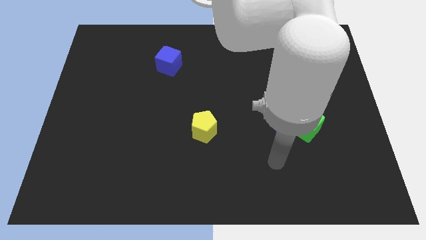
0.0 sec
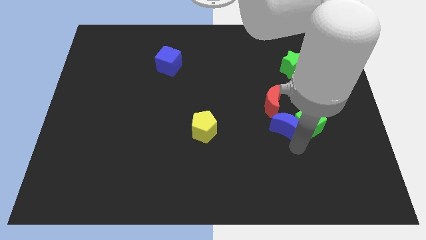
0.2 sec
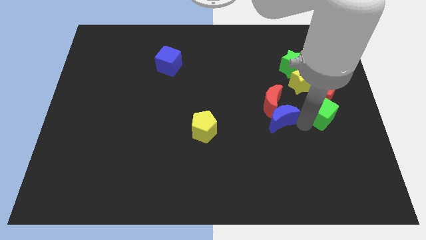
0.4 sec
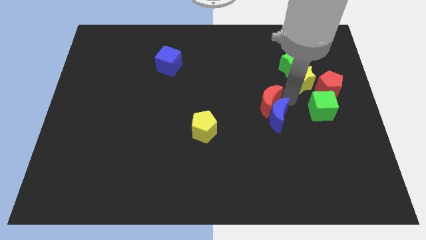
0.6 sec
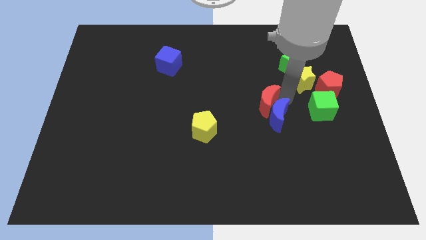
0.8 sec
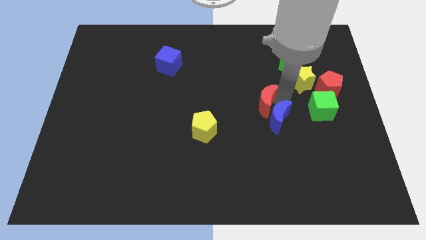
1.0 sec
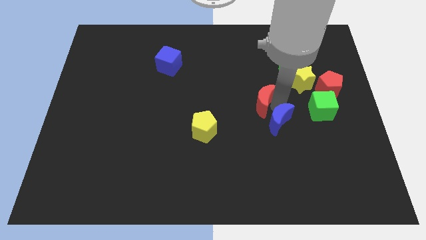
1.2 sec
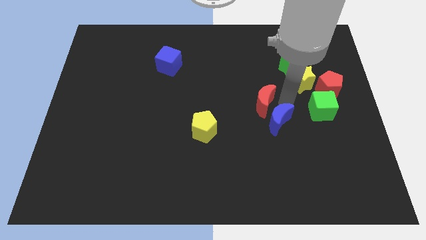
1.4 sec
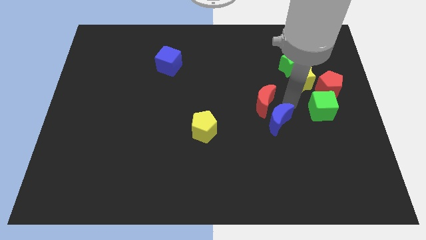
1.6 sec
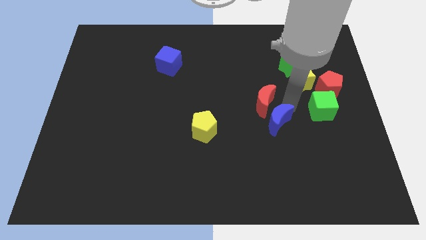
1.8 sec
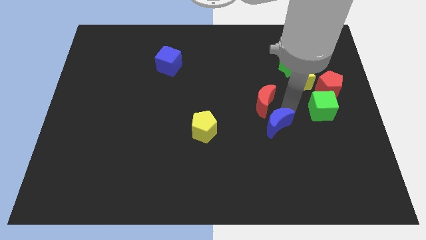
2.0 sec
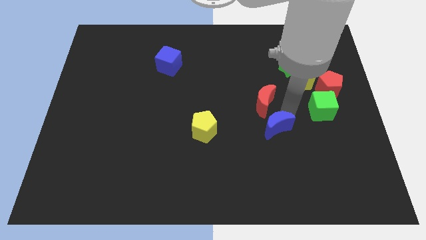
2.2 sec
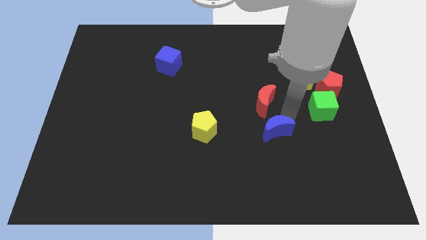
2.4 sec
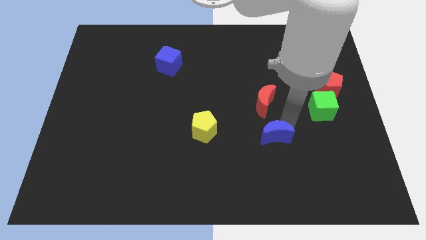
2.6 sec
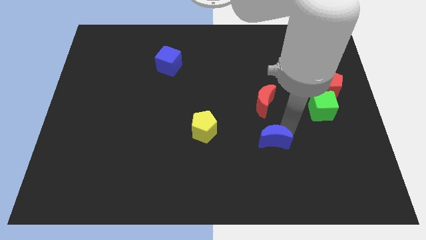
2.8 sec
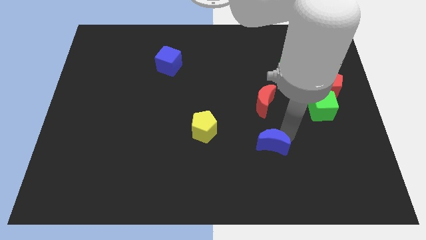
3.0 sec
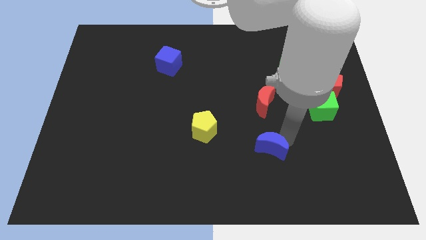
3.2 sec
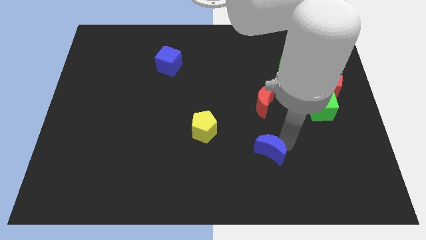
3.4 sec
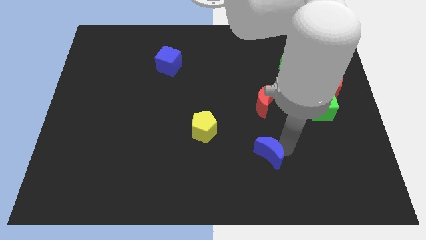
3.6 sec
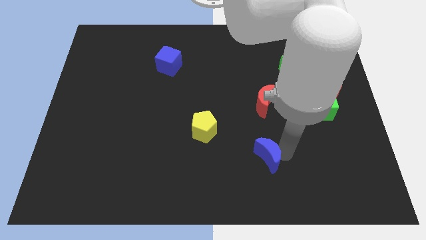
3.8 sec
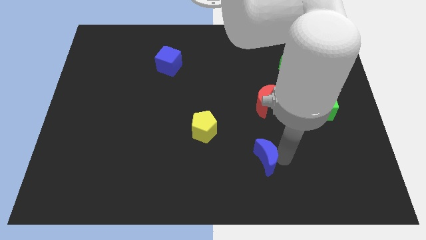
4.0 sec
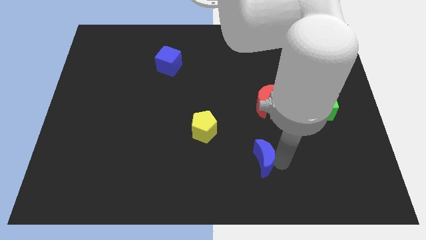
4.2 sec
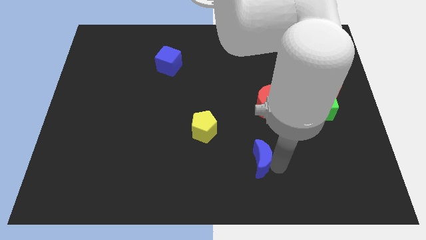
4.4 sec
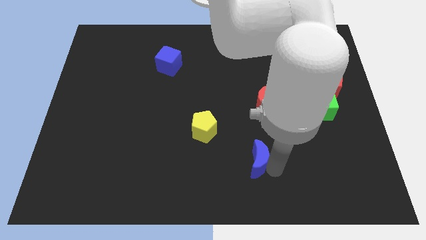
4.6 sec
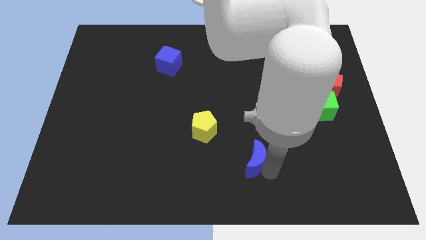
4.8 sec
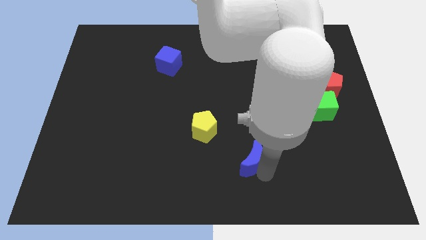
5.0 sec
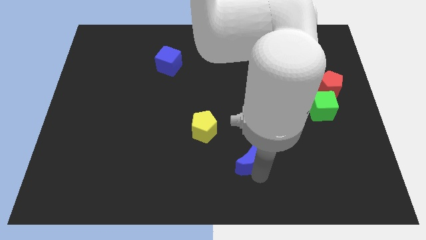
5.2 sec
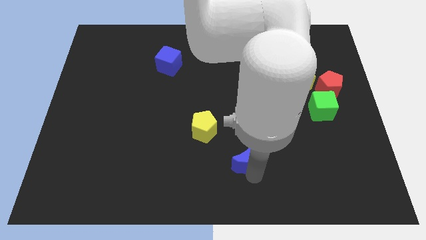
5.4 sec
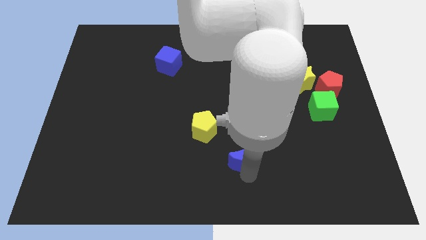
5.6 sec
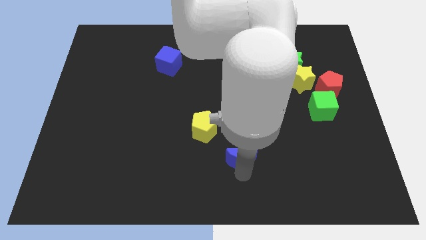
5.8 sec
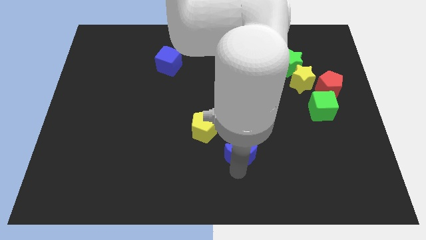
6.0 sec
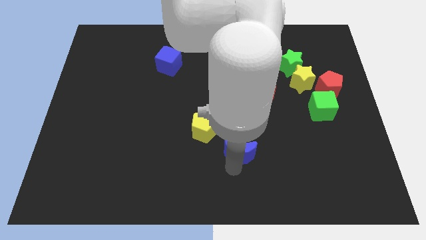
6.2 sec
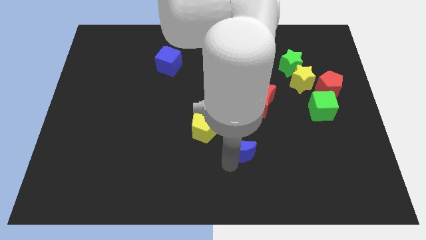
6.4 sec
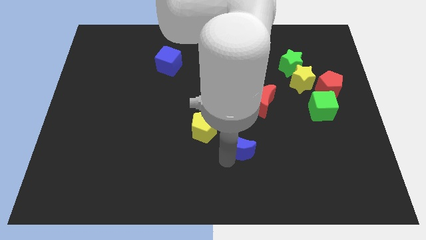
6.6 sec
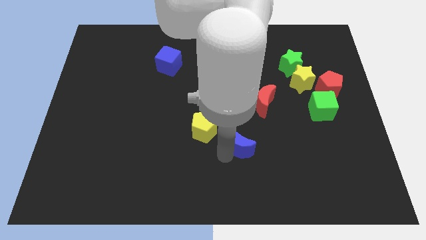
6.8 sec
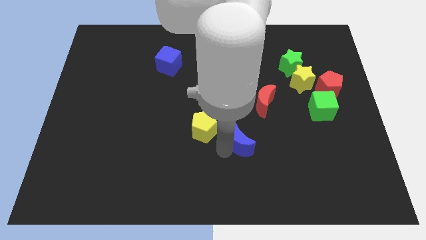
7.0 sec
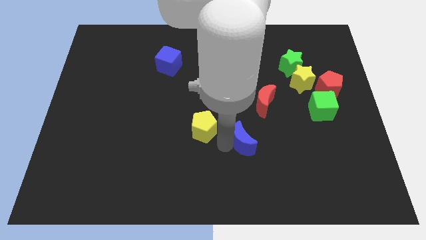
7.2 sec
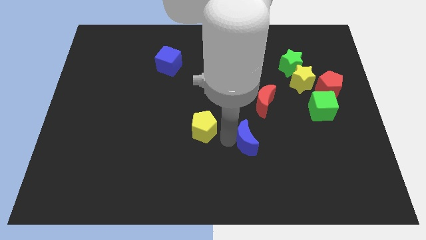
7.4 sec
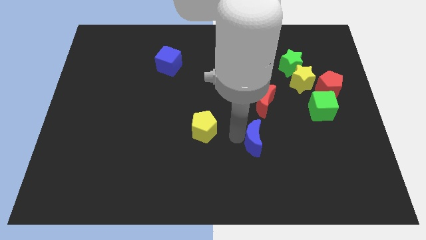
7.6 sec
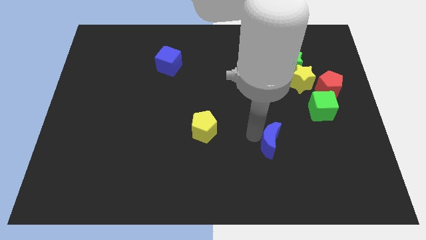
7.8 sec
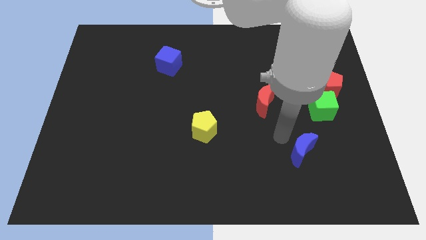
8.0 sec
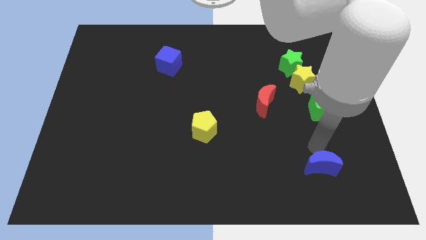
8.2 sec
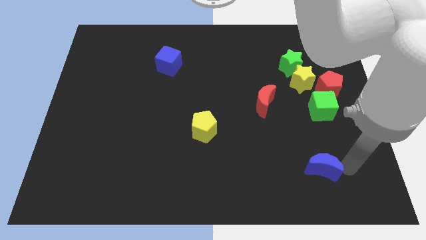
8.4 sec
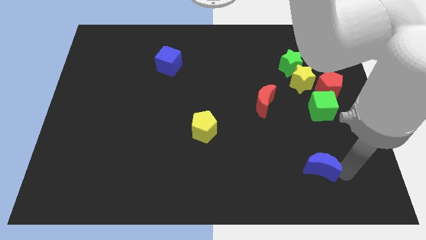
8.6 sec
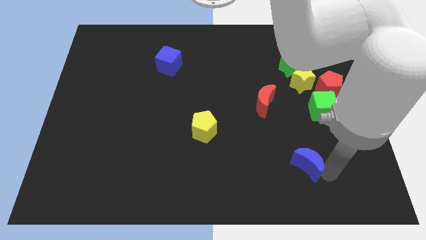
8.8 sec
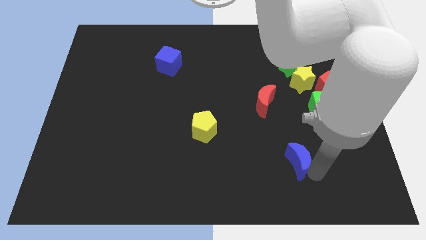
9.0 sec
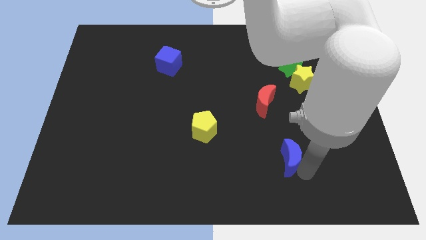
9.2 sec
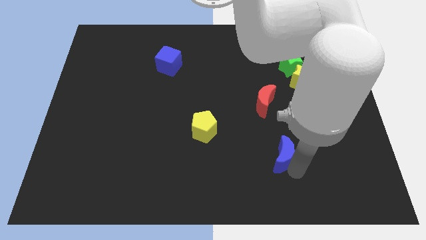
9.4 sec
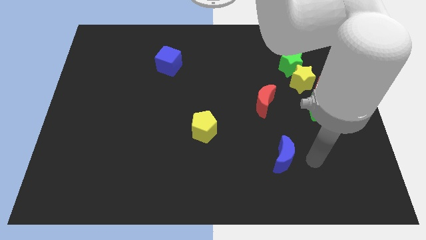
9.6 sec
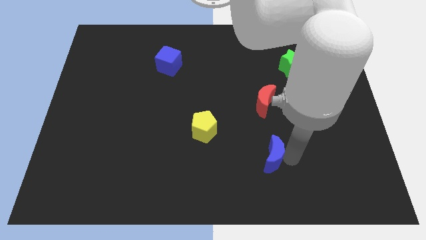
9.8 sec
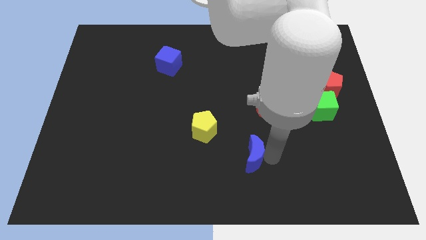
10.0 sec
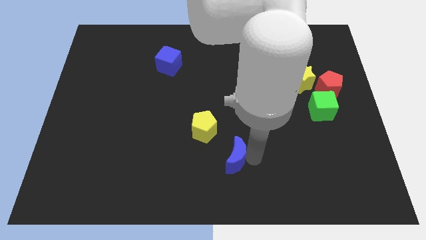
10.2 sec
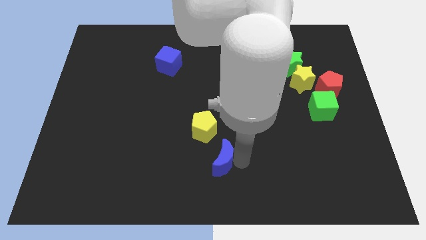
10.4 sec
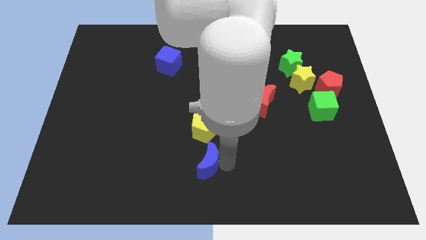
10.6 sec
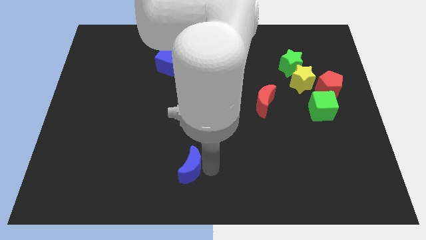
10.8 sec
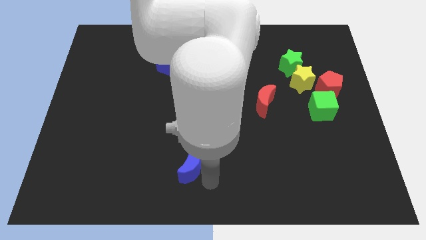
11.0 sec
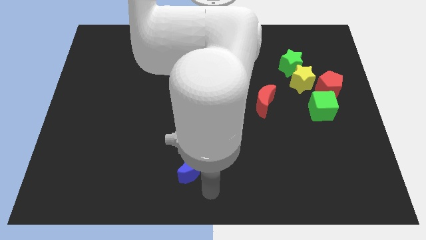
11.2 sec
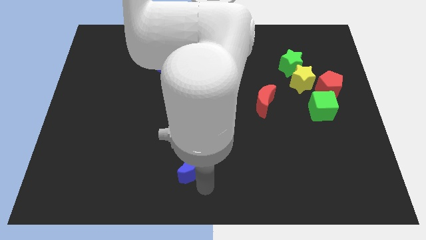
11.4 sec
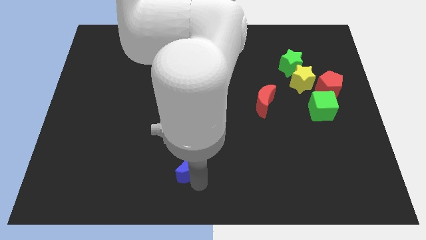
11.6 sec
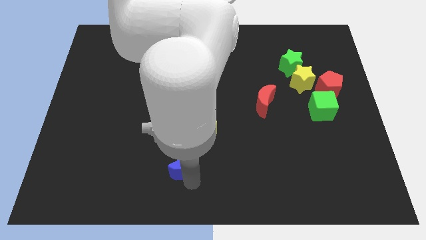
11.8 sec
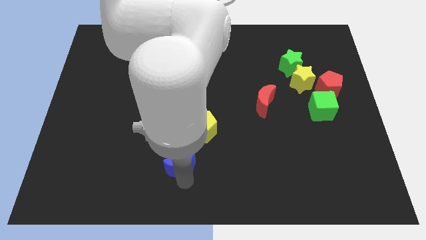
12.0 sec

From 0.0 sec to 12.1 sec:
push the blue moon to the left

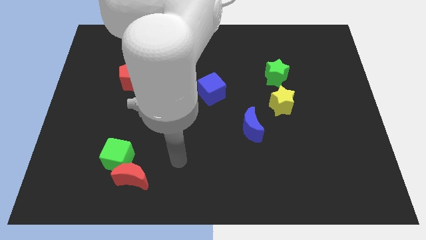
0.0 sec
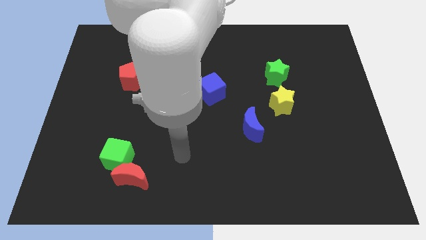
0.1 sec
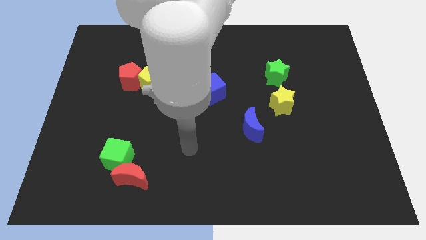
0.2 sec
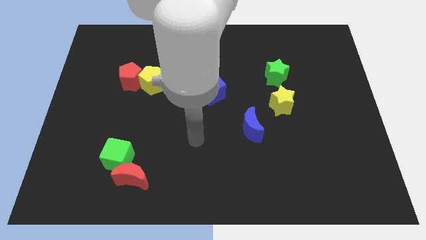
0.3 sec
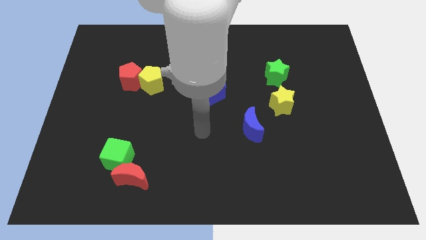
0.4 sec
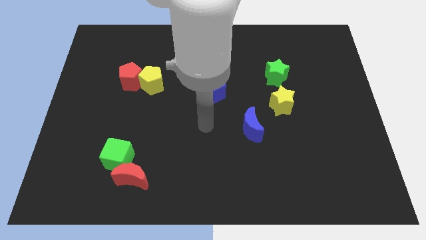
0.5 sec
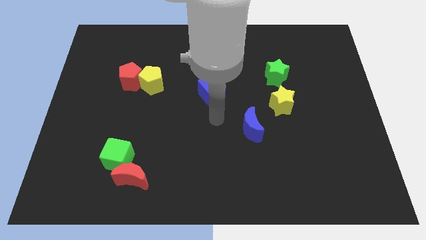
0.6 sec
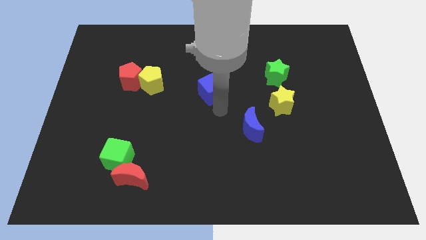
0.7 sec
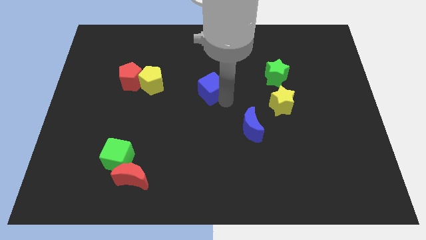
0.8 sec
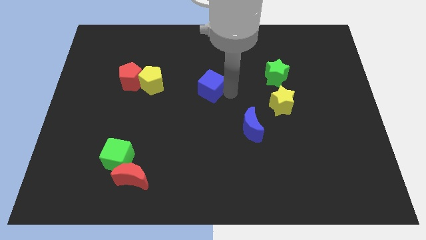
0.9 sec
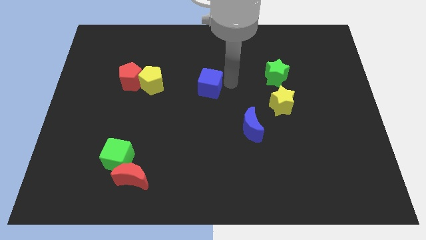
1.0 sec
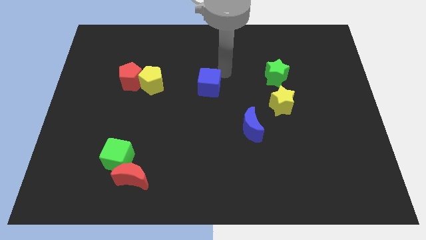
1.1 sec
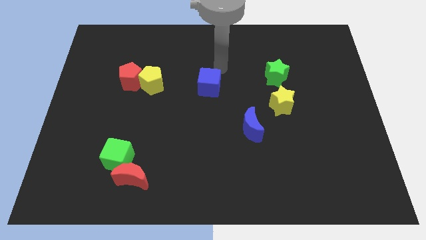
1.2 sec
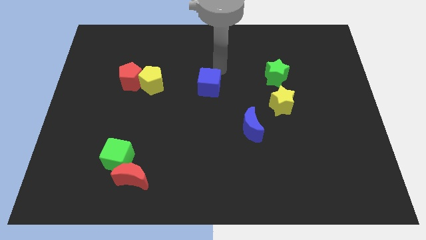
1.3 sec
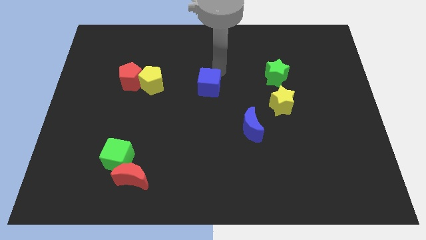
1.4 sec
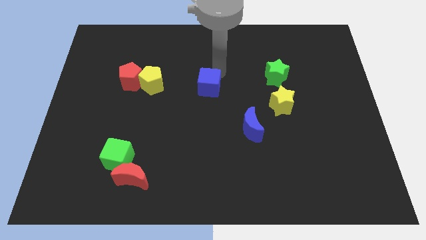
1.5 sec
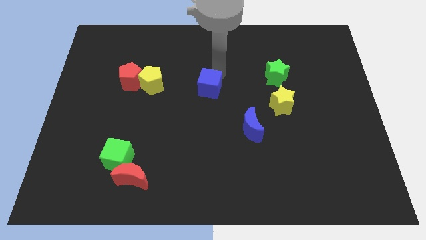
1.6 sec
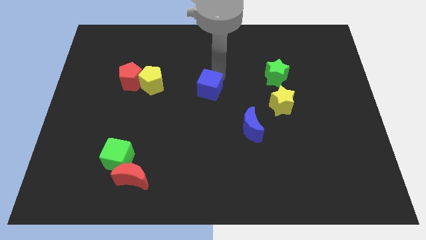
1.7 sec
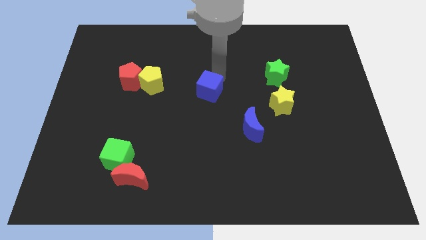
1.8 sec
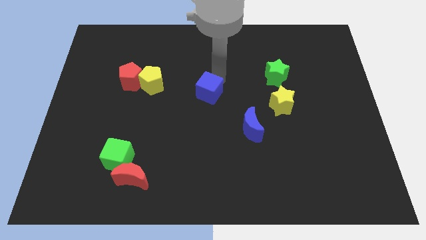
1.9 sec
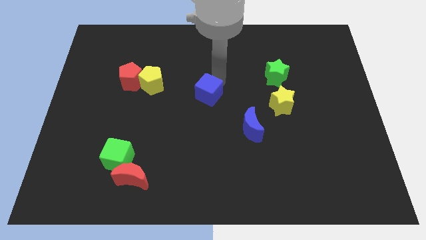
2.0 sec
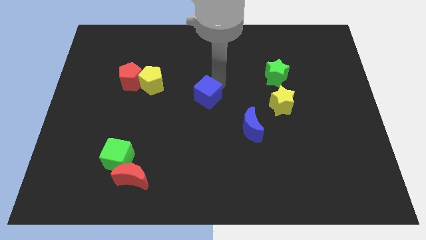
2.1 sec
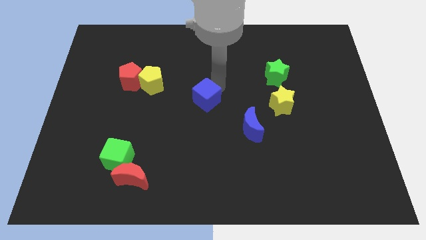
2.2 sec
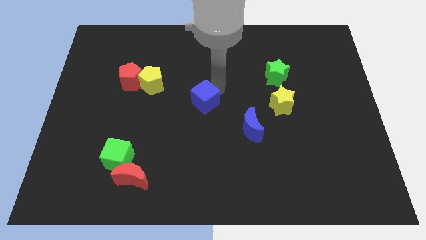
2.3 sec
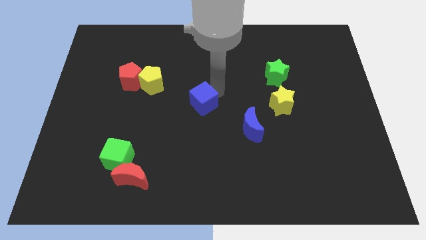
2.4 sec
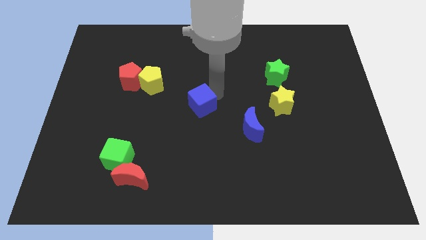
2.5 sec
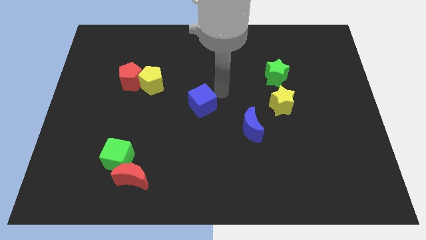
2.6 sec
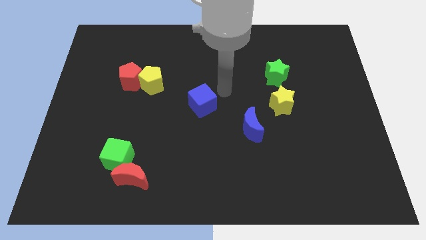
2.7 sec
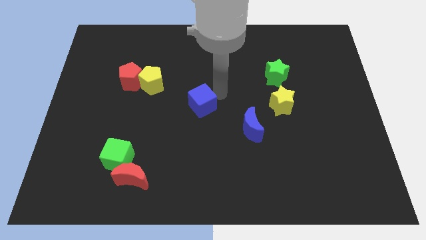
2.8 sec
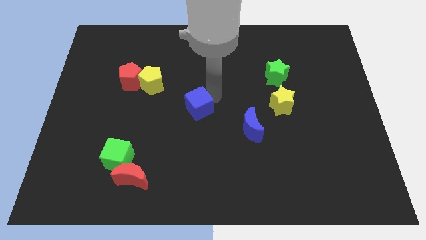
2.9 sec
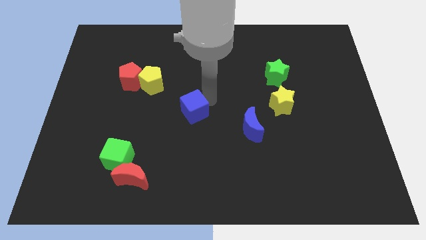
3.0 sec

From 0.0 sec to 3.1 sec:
slide the blue cube downwards and then left a bit
